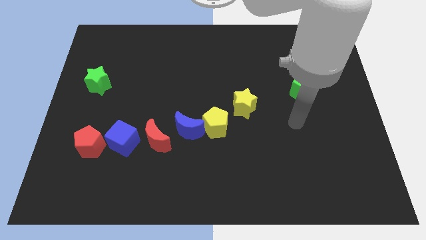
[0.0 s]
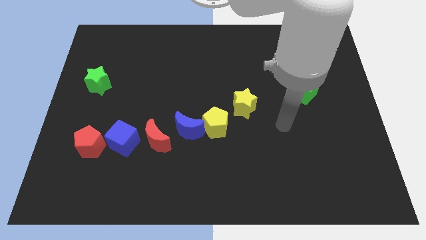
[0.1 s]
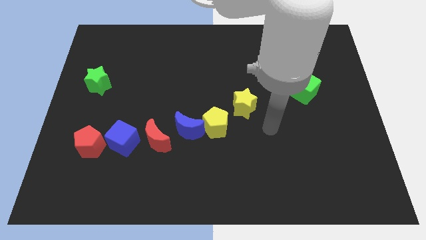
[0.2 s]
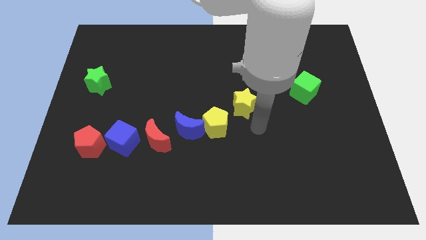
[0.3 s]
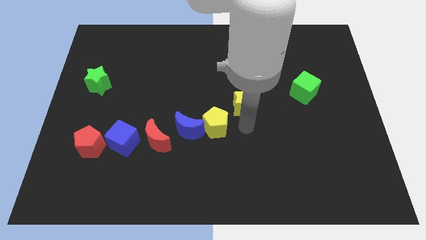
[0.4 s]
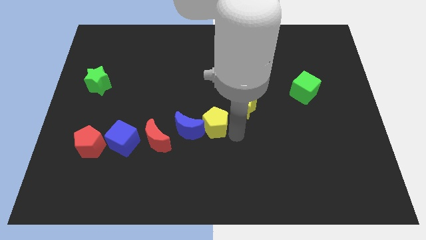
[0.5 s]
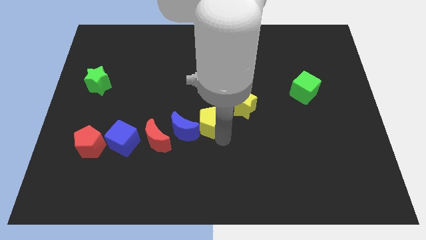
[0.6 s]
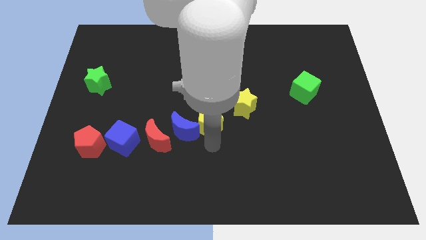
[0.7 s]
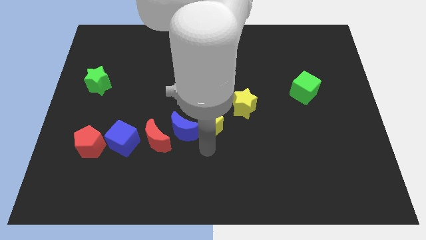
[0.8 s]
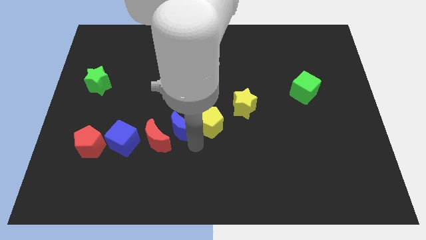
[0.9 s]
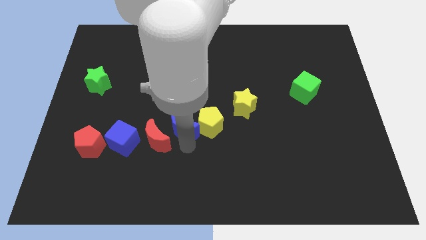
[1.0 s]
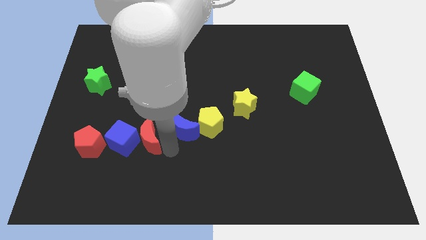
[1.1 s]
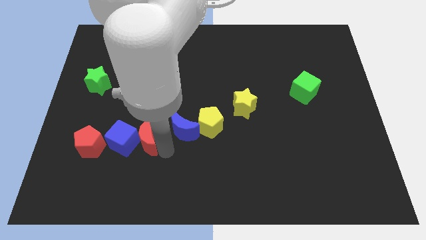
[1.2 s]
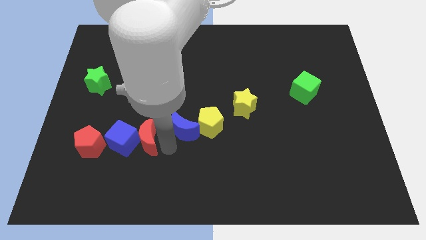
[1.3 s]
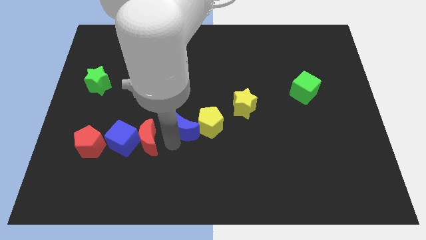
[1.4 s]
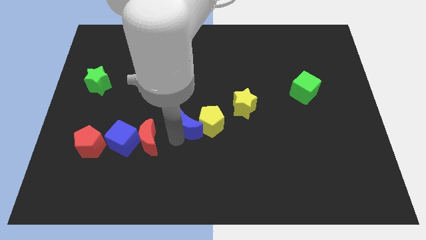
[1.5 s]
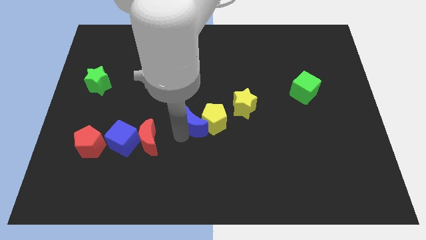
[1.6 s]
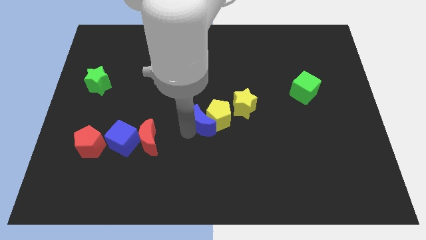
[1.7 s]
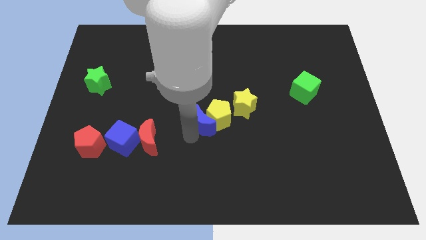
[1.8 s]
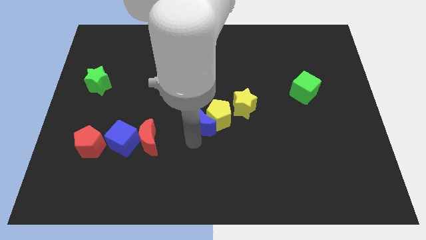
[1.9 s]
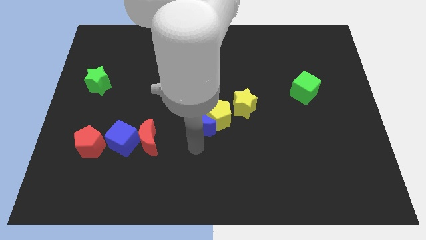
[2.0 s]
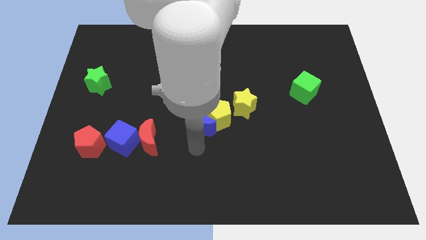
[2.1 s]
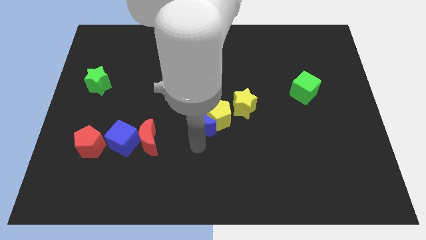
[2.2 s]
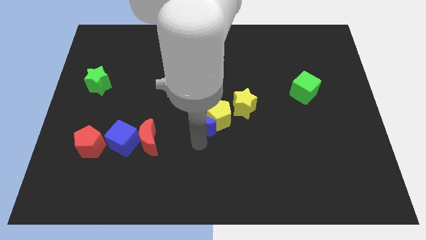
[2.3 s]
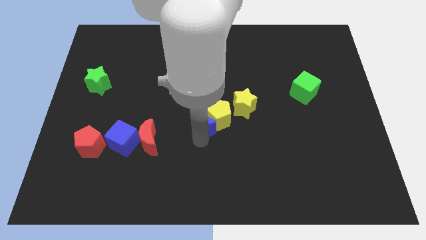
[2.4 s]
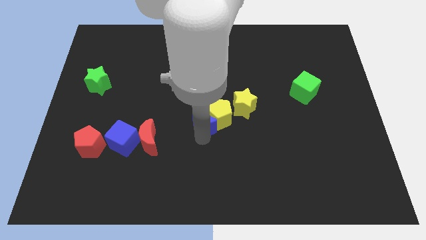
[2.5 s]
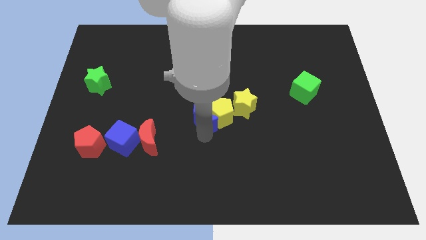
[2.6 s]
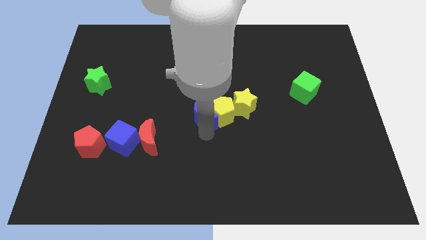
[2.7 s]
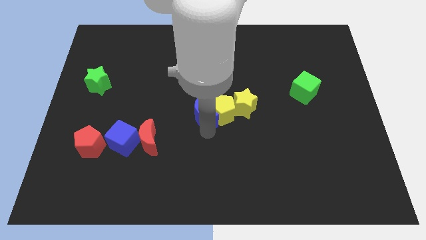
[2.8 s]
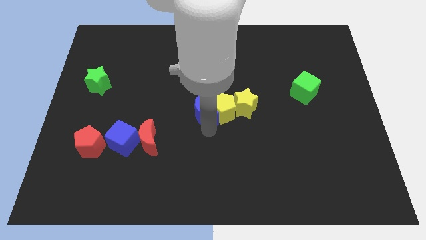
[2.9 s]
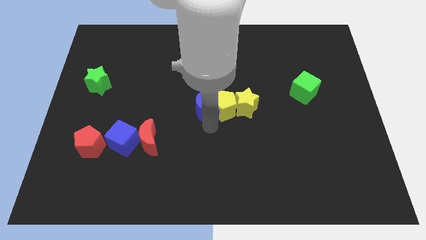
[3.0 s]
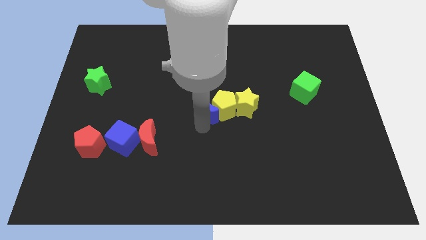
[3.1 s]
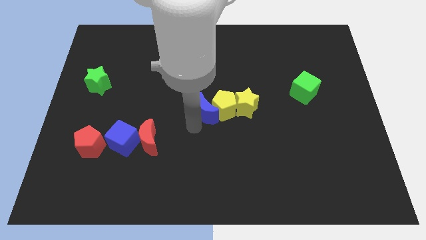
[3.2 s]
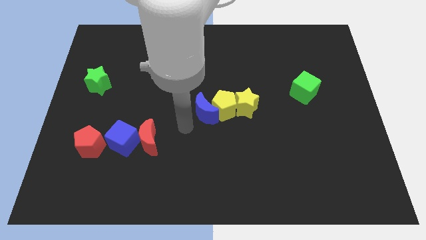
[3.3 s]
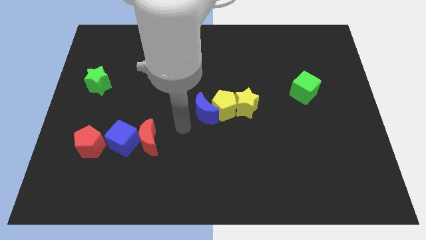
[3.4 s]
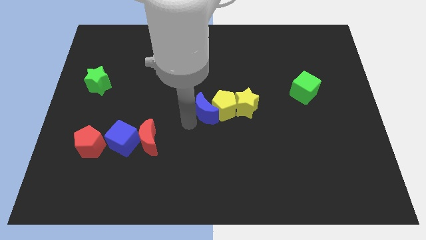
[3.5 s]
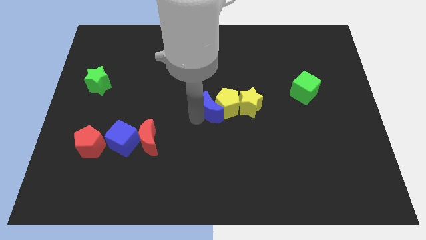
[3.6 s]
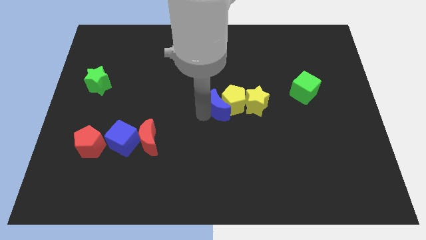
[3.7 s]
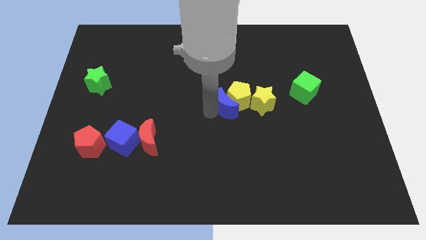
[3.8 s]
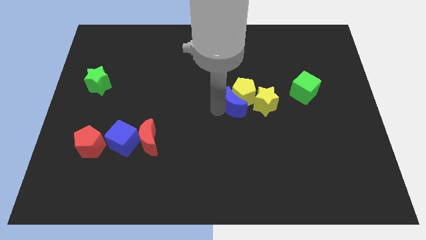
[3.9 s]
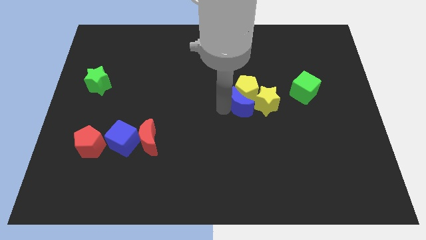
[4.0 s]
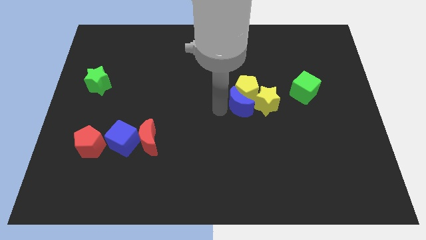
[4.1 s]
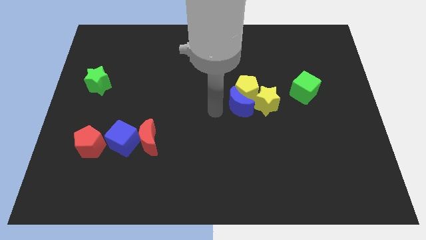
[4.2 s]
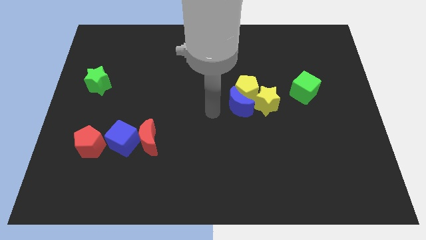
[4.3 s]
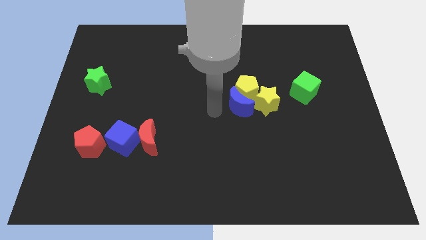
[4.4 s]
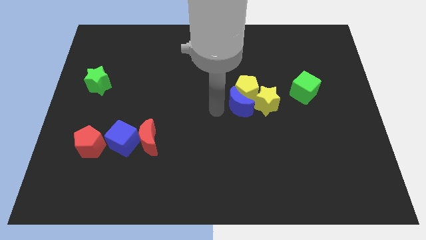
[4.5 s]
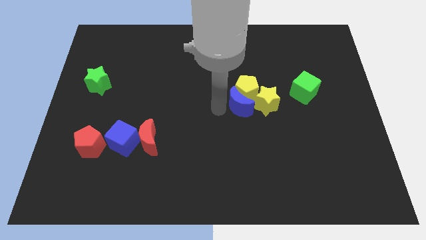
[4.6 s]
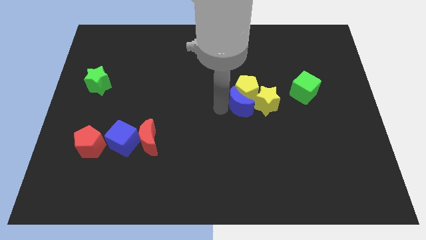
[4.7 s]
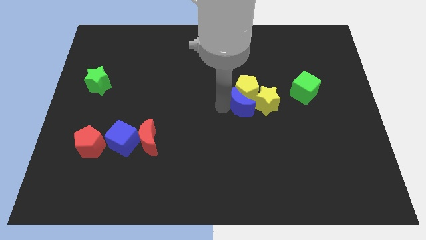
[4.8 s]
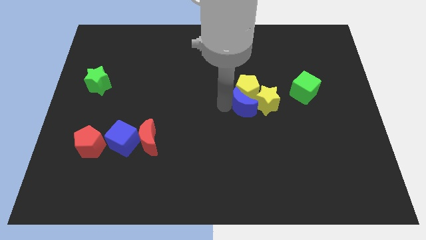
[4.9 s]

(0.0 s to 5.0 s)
pull the blue moon apart from the yellow pentagon and red moon

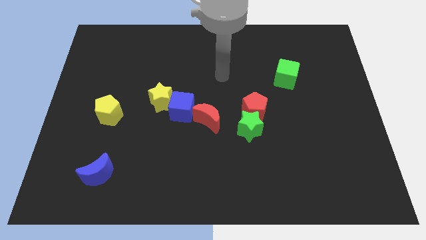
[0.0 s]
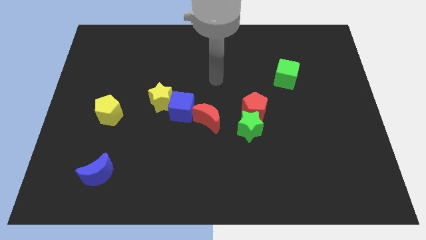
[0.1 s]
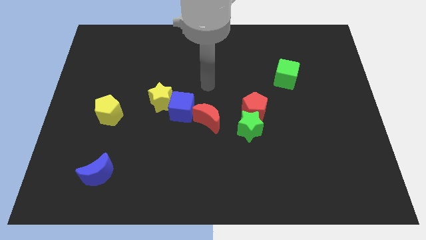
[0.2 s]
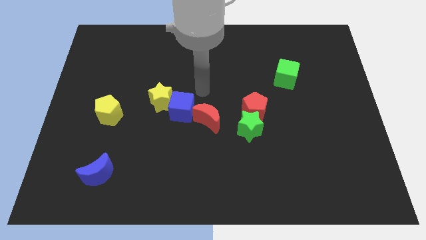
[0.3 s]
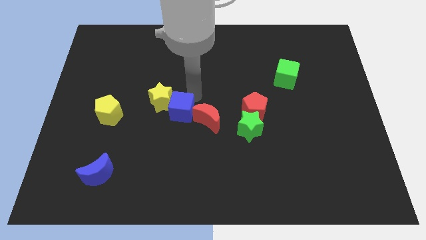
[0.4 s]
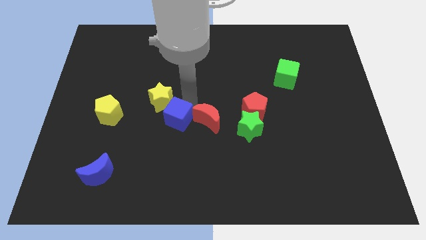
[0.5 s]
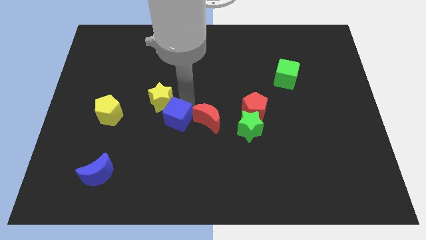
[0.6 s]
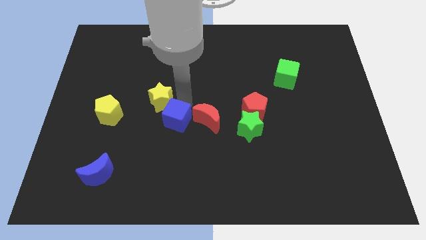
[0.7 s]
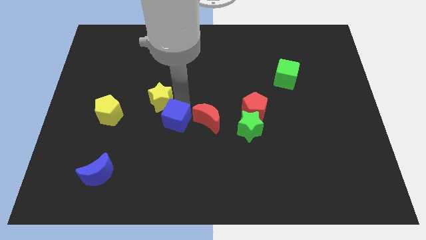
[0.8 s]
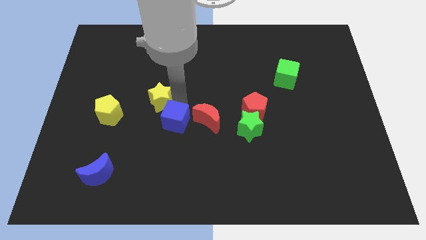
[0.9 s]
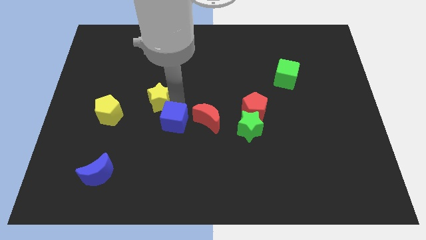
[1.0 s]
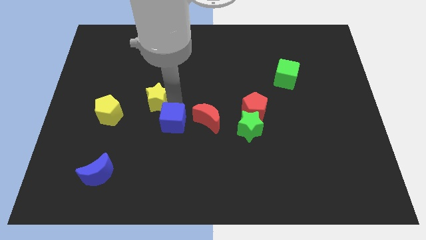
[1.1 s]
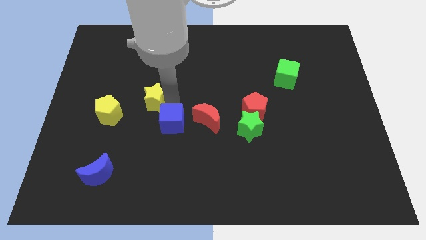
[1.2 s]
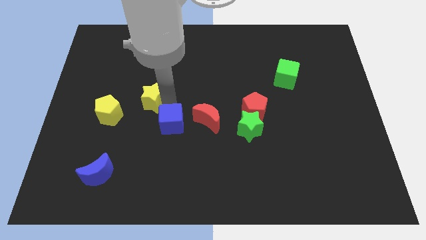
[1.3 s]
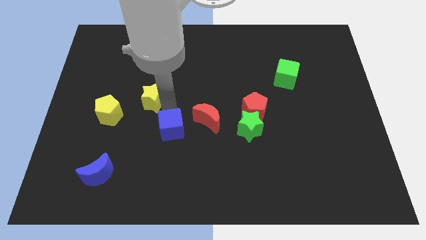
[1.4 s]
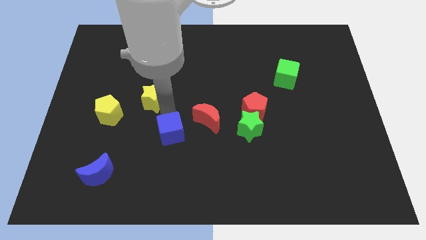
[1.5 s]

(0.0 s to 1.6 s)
pull the yellow star apart from the blue cube

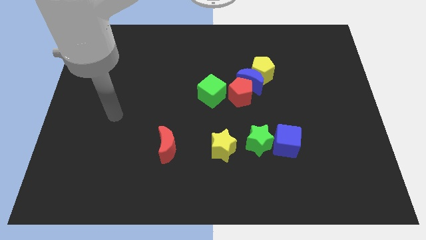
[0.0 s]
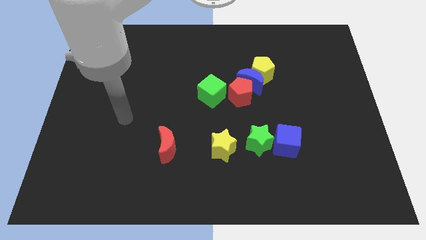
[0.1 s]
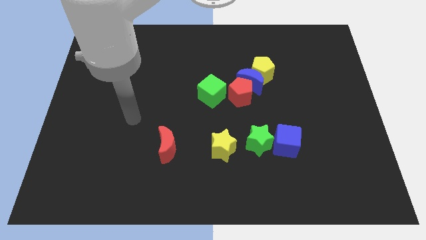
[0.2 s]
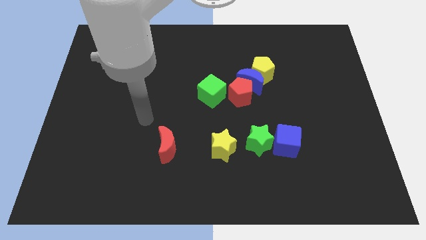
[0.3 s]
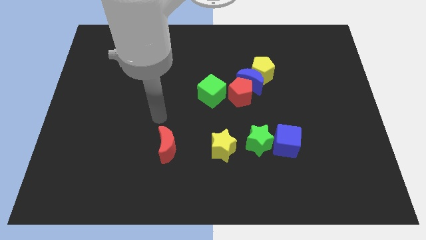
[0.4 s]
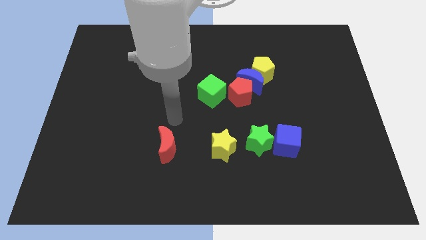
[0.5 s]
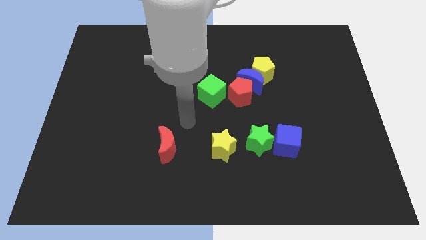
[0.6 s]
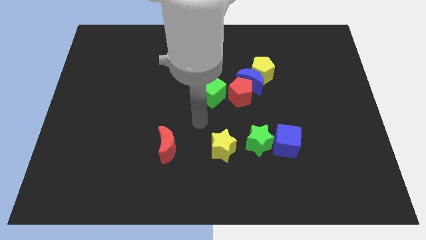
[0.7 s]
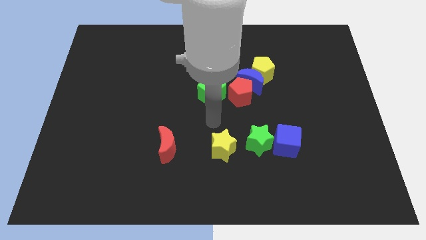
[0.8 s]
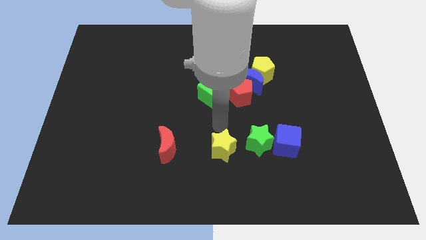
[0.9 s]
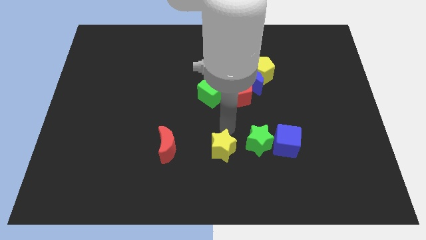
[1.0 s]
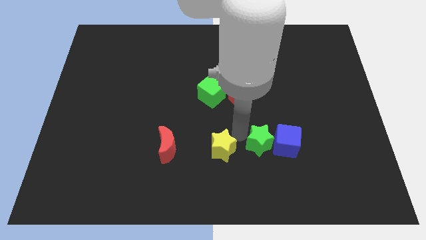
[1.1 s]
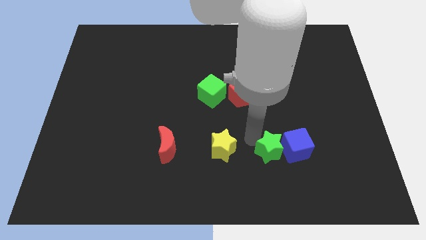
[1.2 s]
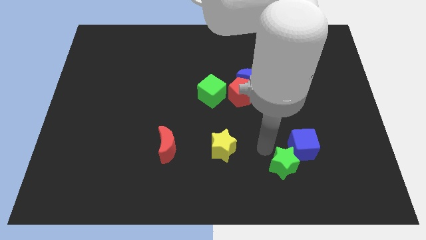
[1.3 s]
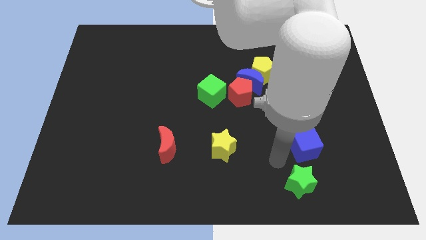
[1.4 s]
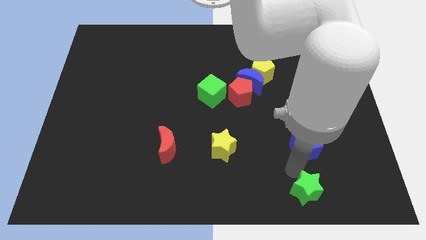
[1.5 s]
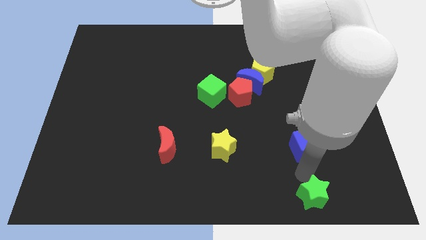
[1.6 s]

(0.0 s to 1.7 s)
separate the blue cube from the green star

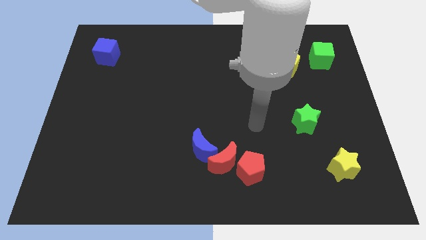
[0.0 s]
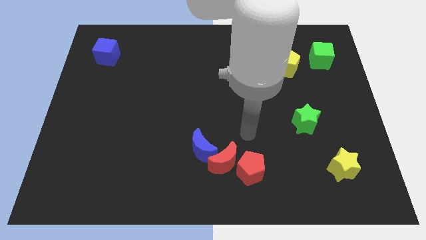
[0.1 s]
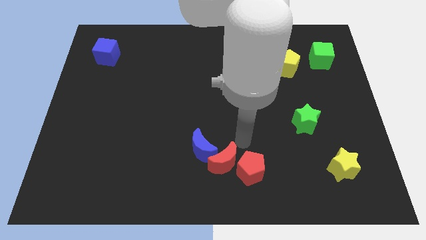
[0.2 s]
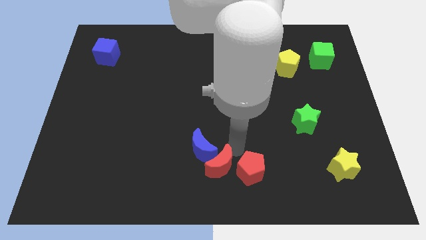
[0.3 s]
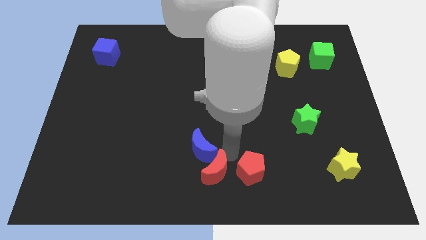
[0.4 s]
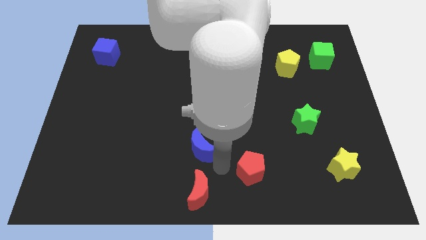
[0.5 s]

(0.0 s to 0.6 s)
separate the red pentagon from the red moon

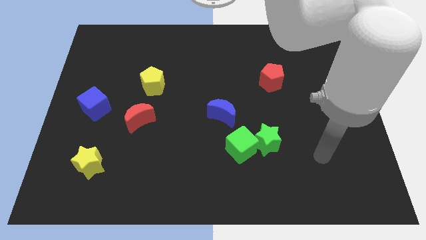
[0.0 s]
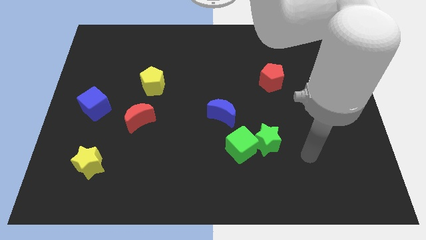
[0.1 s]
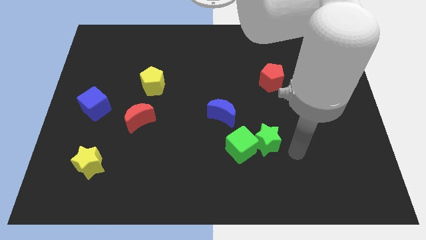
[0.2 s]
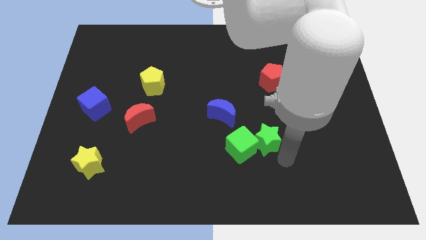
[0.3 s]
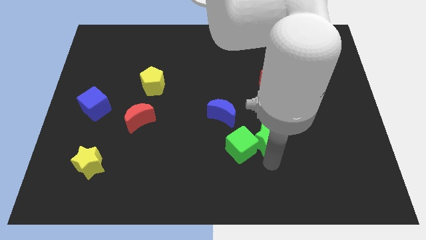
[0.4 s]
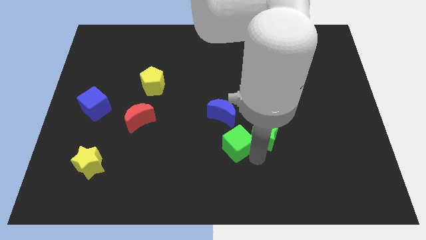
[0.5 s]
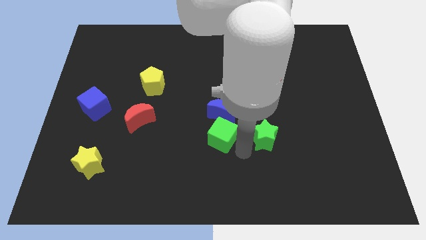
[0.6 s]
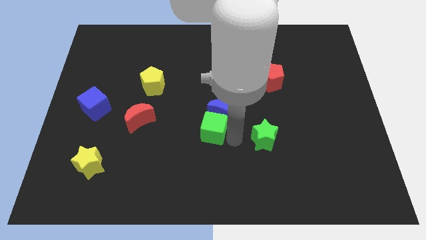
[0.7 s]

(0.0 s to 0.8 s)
separate the green star from the green cube
